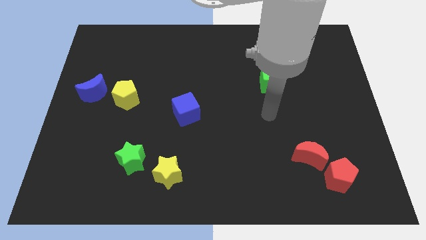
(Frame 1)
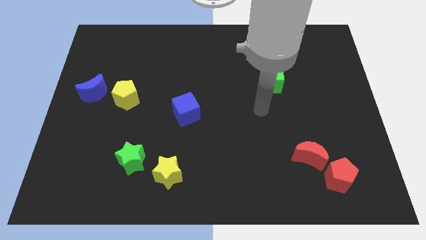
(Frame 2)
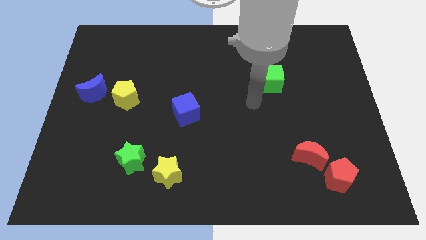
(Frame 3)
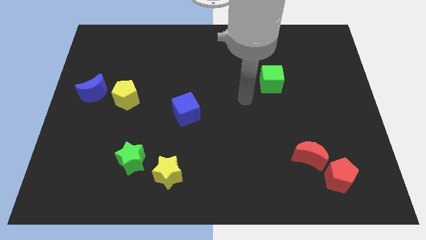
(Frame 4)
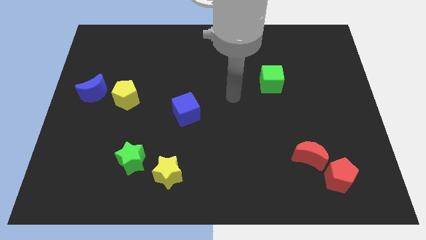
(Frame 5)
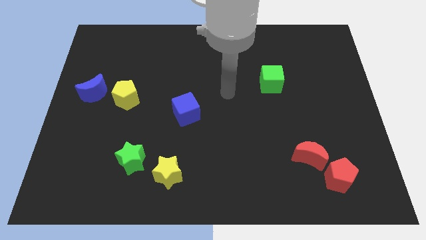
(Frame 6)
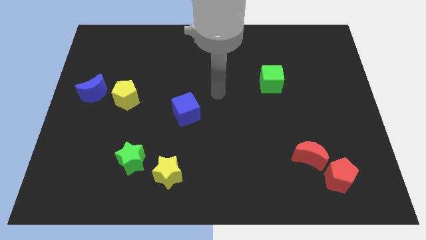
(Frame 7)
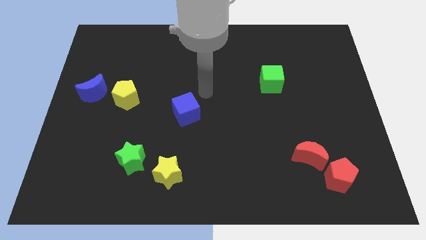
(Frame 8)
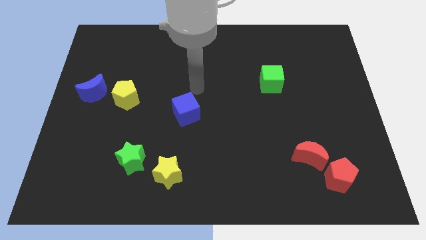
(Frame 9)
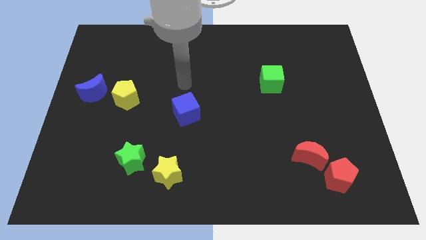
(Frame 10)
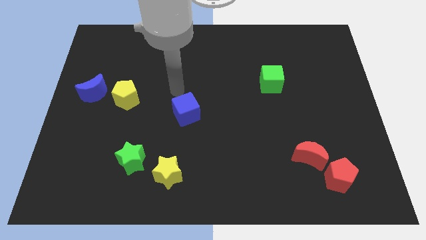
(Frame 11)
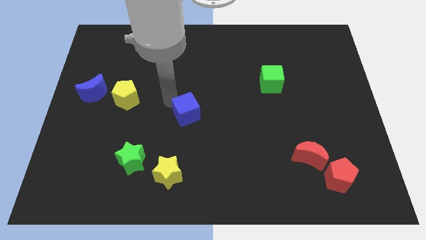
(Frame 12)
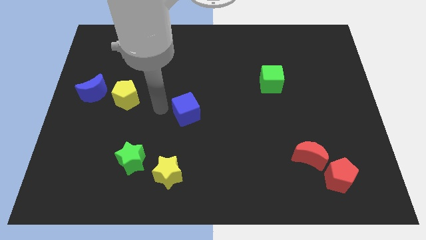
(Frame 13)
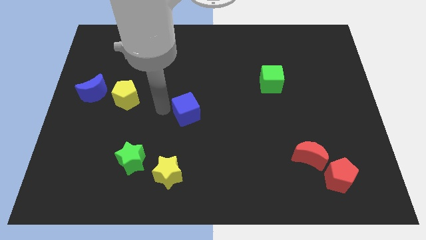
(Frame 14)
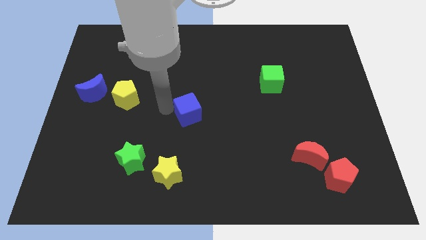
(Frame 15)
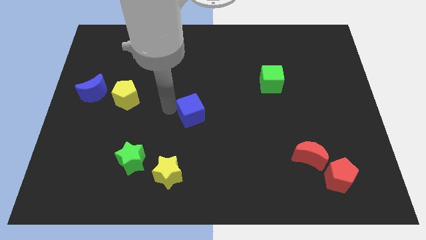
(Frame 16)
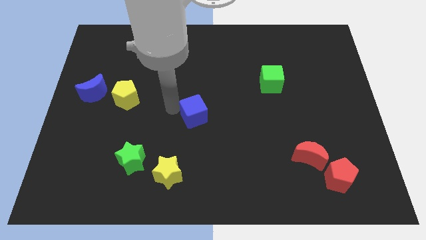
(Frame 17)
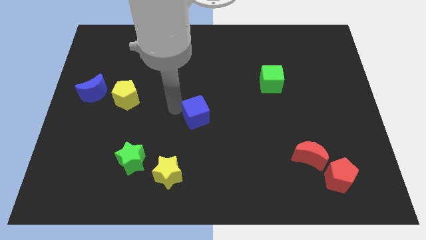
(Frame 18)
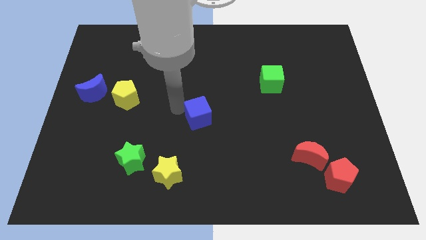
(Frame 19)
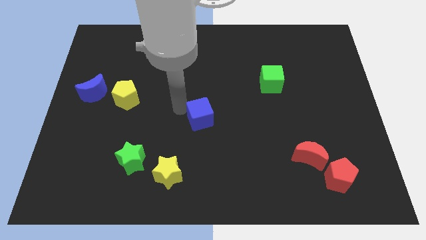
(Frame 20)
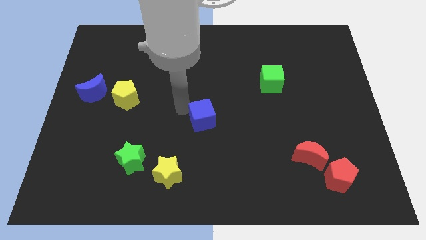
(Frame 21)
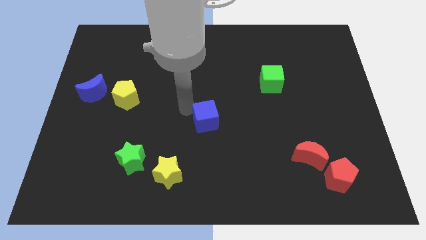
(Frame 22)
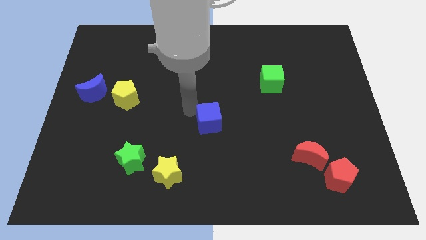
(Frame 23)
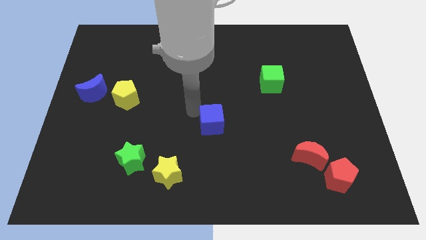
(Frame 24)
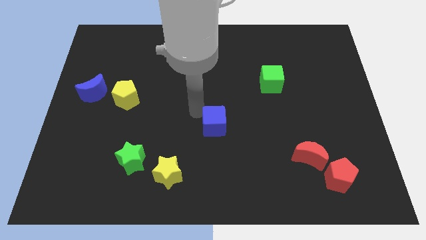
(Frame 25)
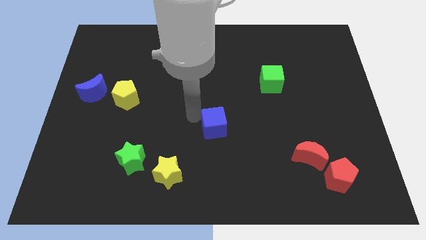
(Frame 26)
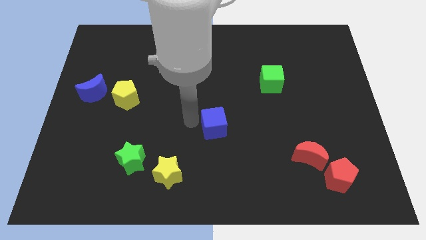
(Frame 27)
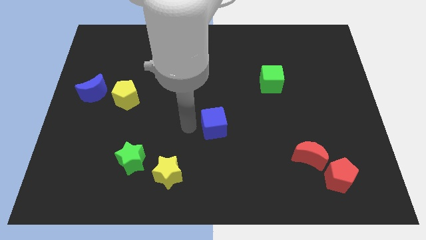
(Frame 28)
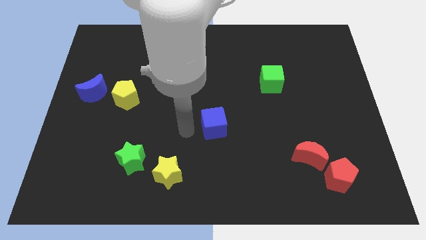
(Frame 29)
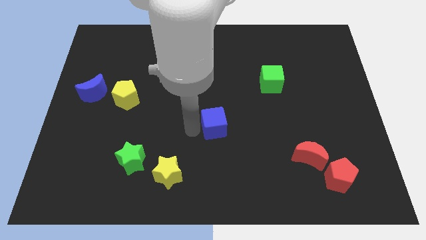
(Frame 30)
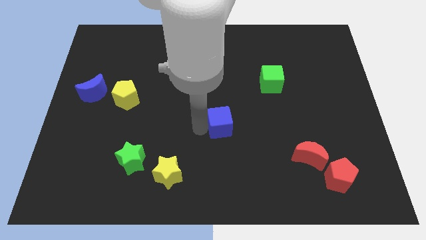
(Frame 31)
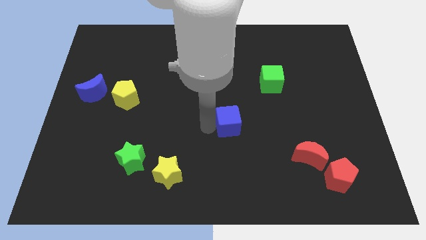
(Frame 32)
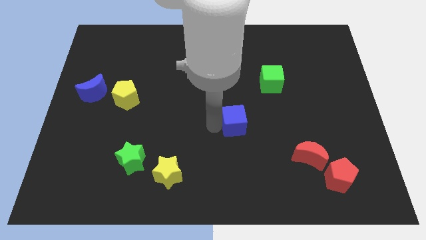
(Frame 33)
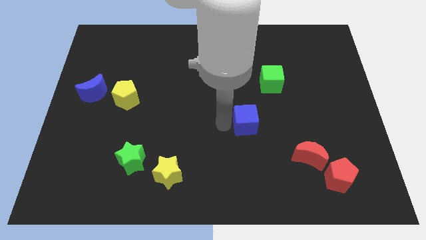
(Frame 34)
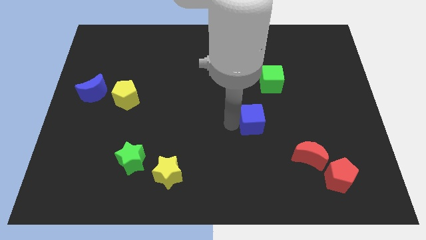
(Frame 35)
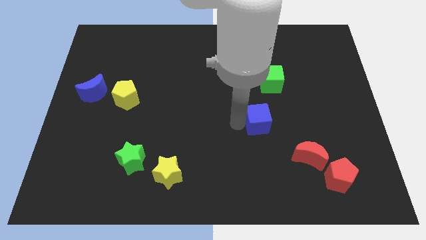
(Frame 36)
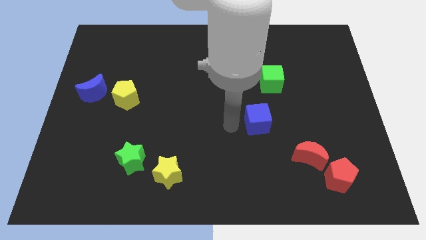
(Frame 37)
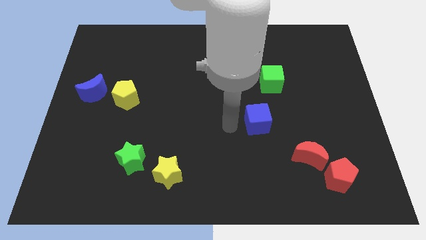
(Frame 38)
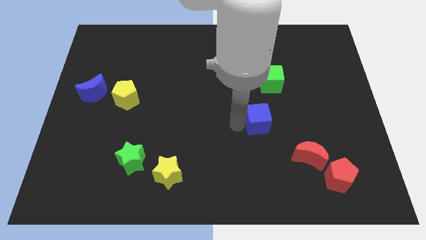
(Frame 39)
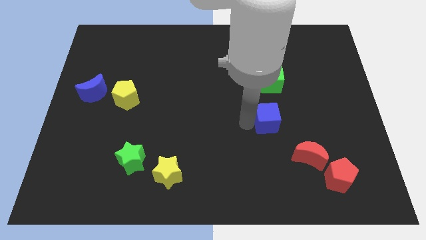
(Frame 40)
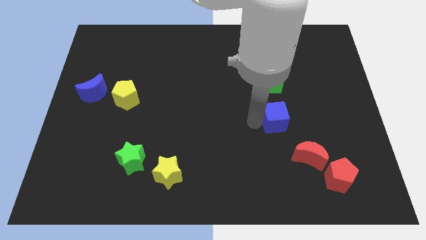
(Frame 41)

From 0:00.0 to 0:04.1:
move the blue cube right

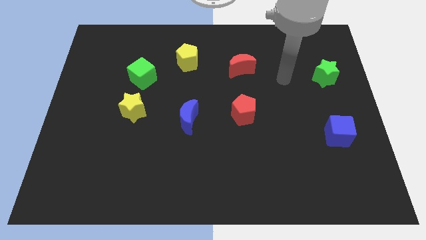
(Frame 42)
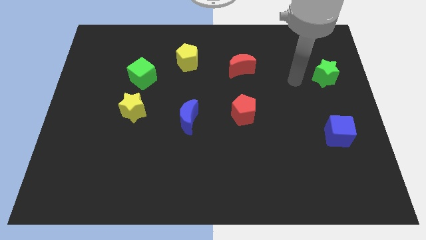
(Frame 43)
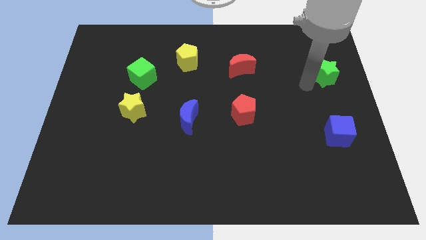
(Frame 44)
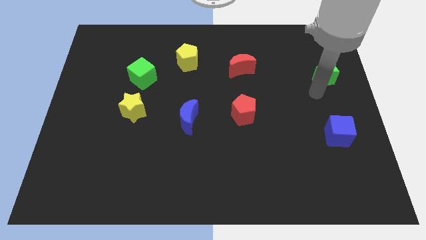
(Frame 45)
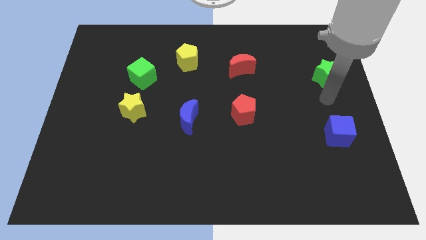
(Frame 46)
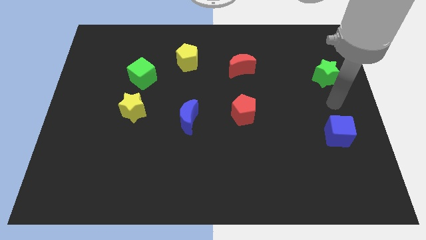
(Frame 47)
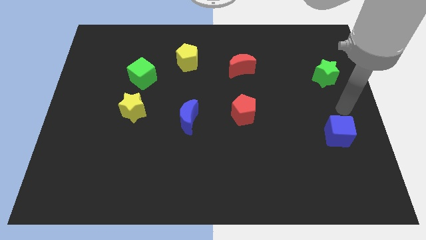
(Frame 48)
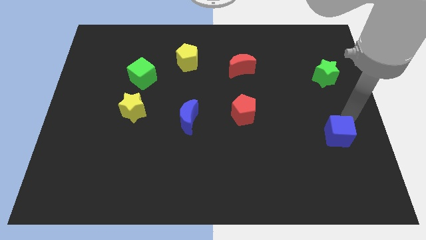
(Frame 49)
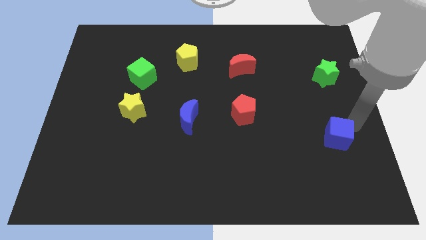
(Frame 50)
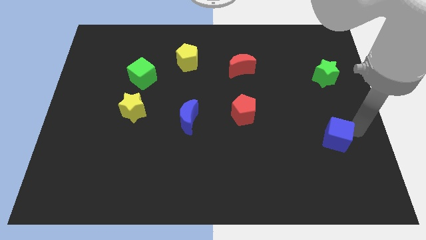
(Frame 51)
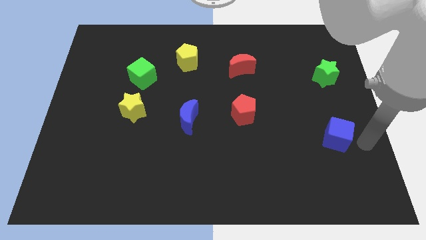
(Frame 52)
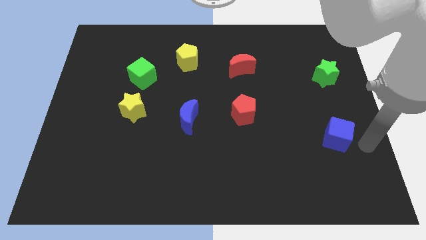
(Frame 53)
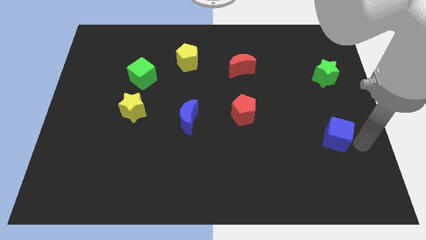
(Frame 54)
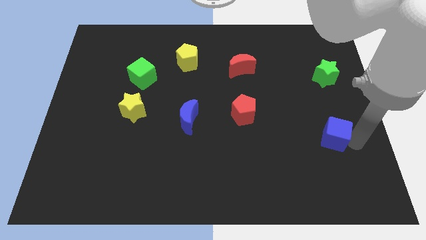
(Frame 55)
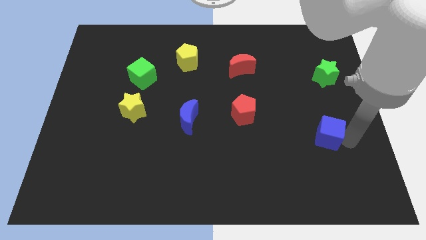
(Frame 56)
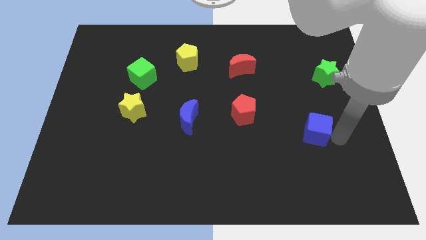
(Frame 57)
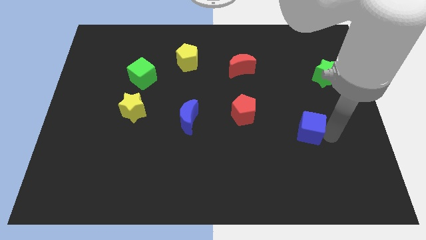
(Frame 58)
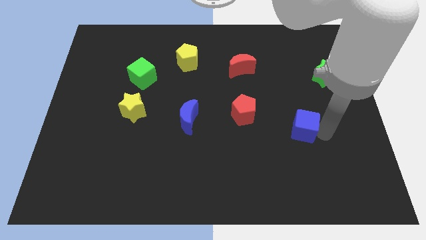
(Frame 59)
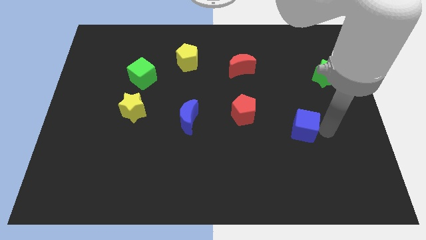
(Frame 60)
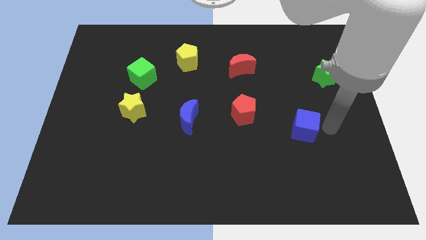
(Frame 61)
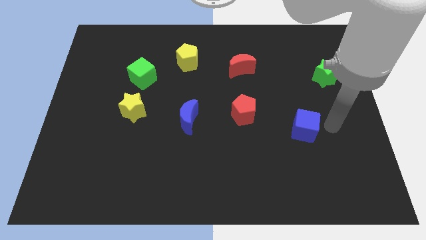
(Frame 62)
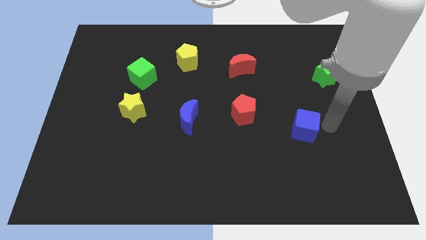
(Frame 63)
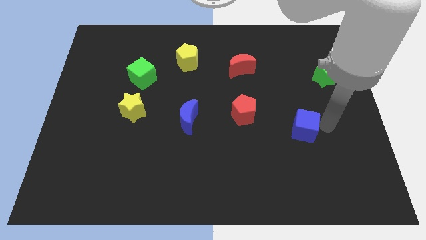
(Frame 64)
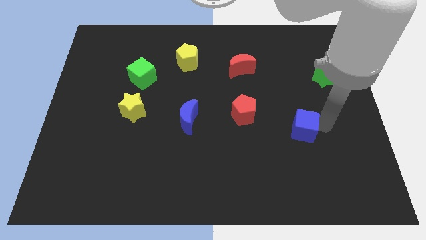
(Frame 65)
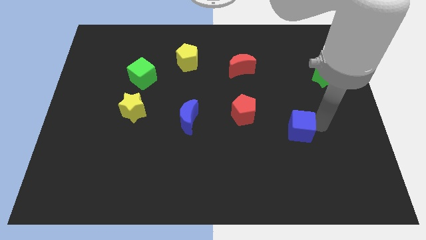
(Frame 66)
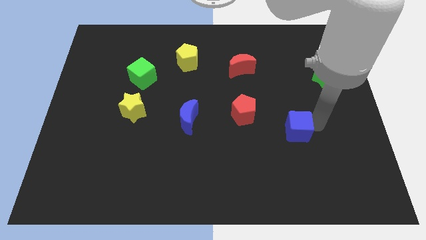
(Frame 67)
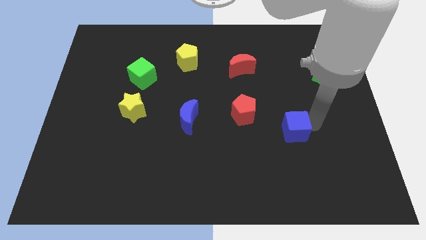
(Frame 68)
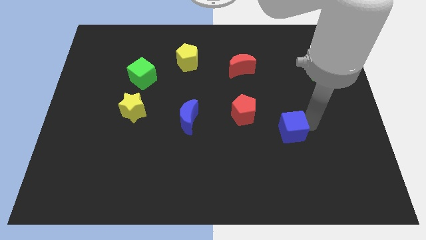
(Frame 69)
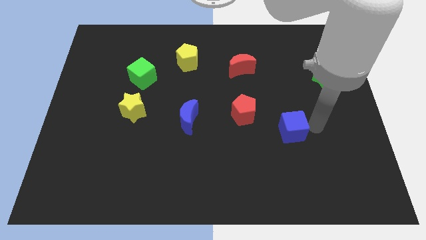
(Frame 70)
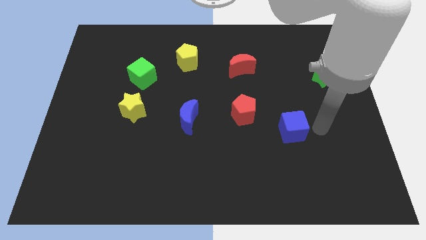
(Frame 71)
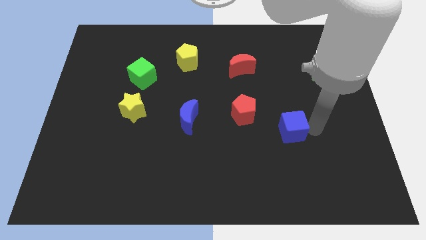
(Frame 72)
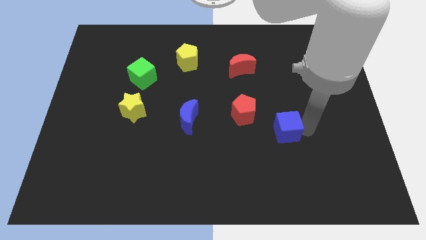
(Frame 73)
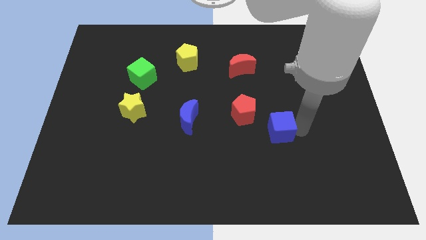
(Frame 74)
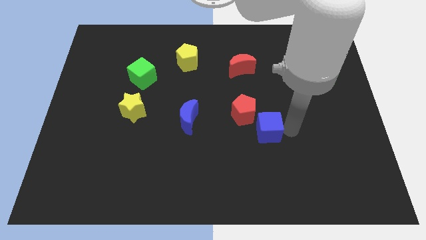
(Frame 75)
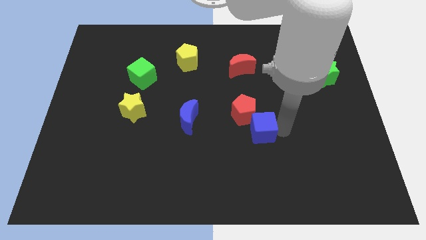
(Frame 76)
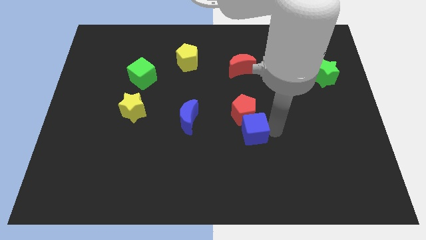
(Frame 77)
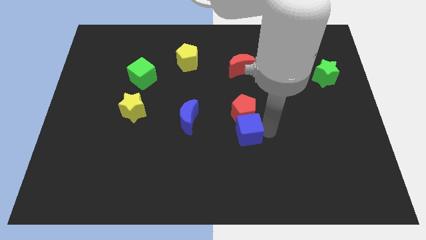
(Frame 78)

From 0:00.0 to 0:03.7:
slide the blue cube to the left

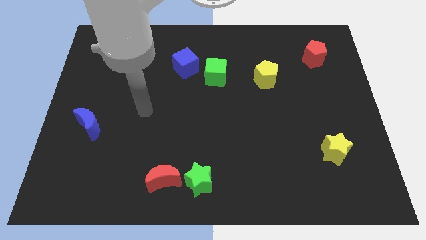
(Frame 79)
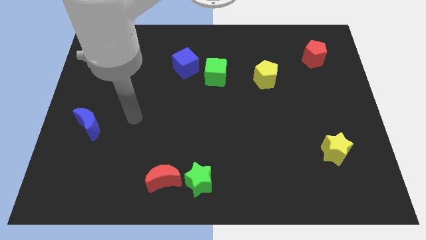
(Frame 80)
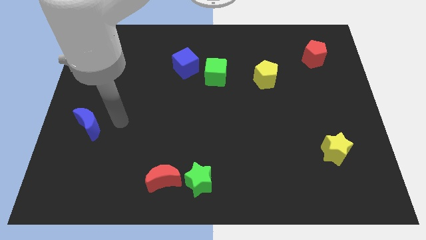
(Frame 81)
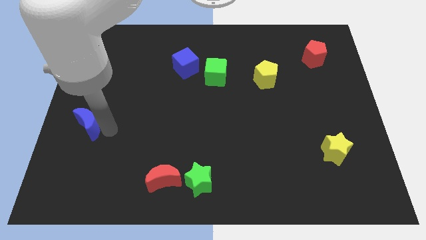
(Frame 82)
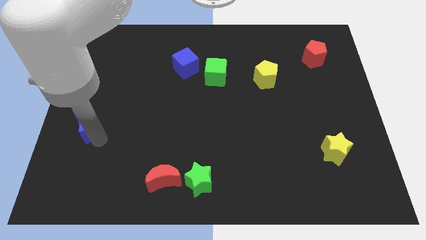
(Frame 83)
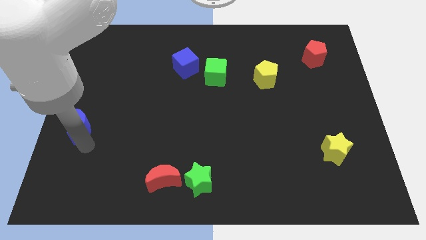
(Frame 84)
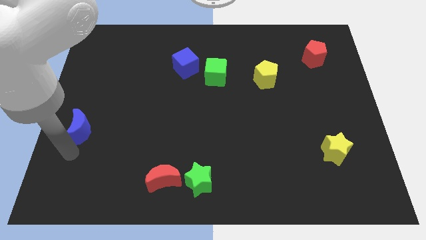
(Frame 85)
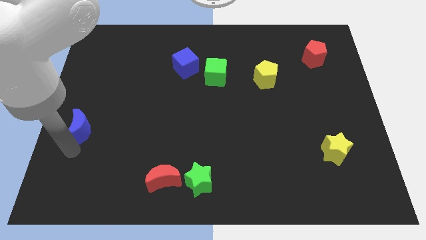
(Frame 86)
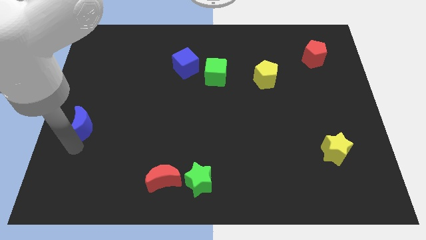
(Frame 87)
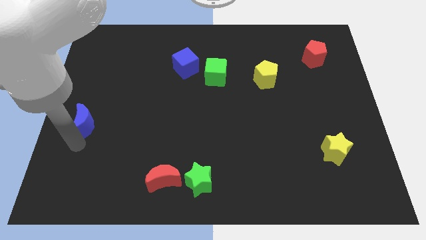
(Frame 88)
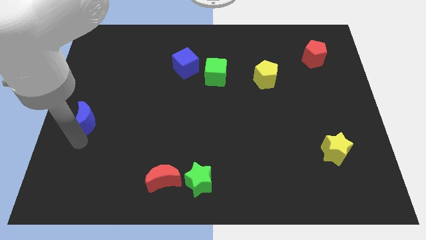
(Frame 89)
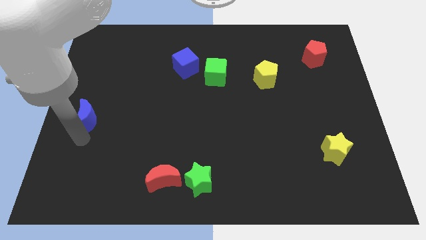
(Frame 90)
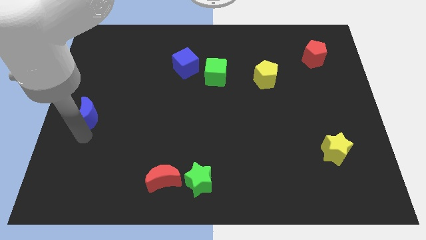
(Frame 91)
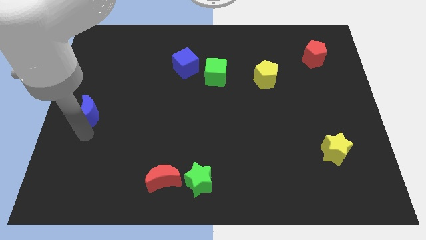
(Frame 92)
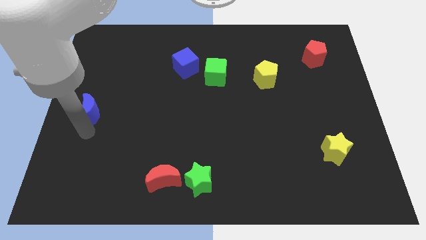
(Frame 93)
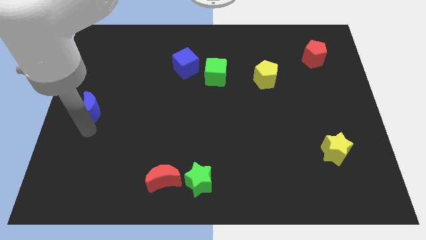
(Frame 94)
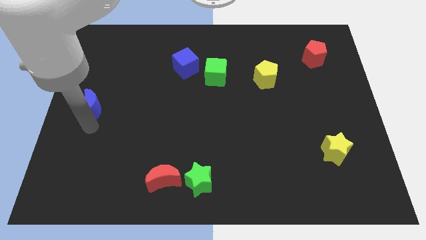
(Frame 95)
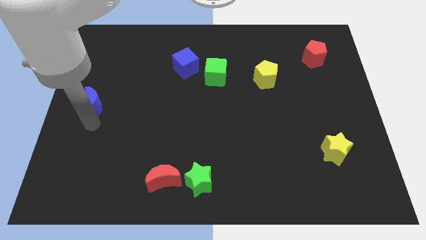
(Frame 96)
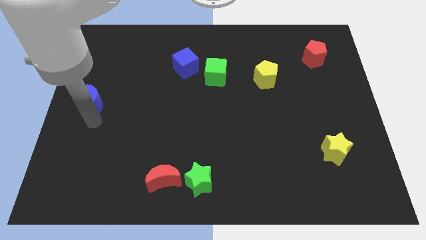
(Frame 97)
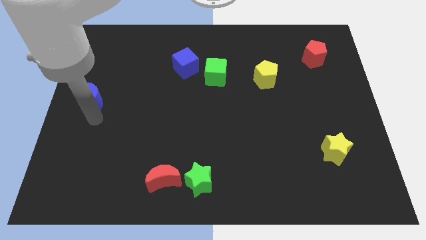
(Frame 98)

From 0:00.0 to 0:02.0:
slightly slide the blue moon up
